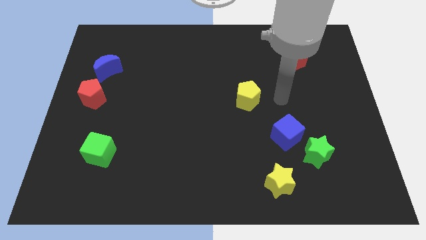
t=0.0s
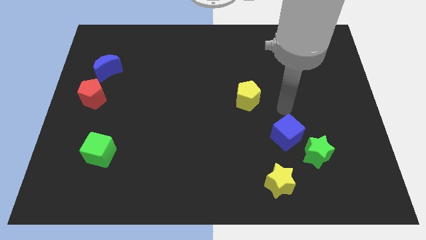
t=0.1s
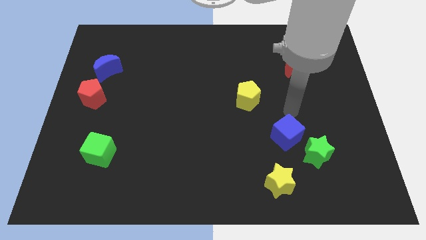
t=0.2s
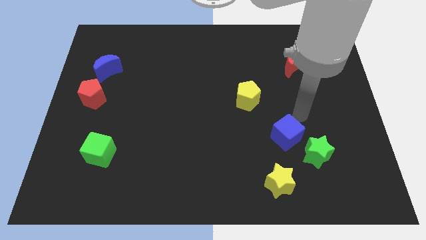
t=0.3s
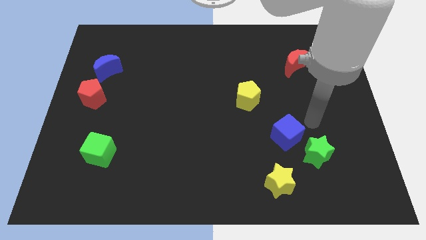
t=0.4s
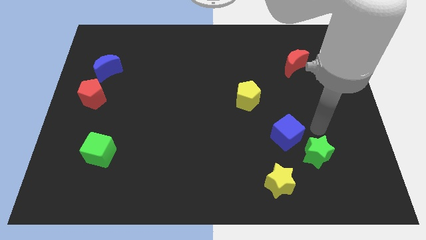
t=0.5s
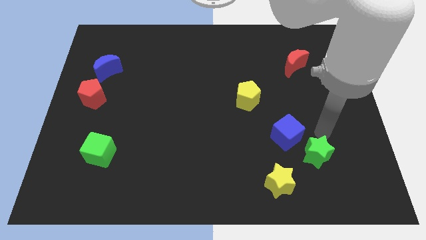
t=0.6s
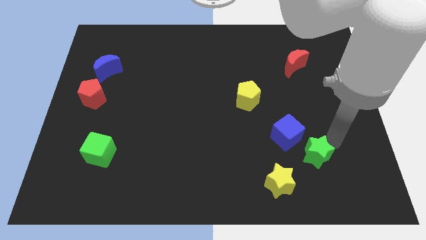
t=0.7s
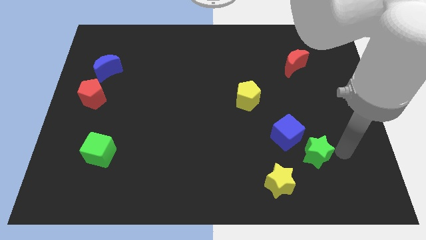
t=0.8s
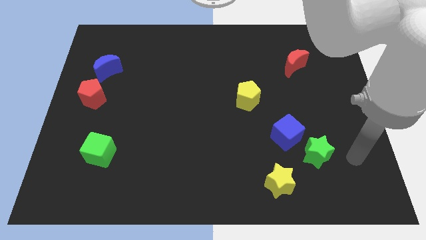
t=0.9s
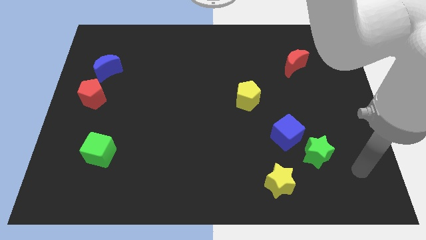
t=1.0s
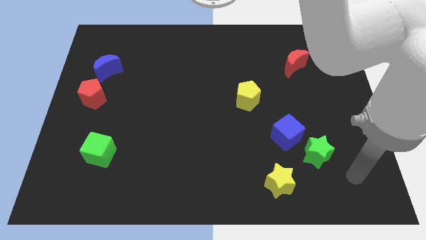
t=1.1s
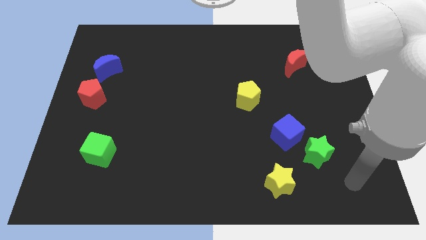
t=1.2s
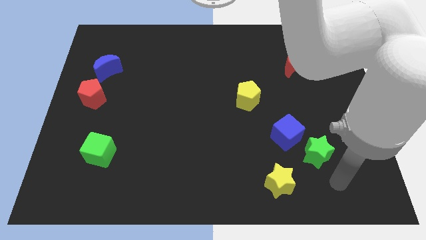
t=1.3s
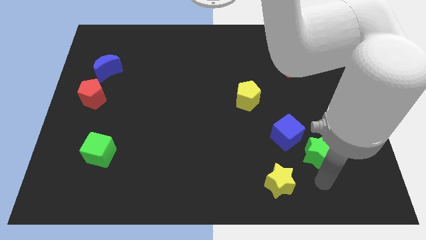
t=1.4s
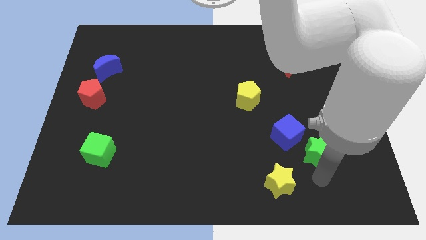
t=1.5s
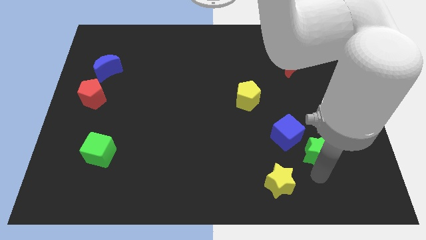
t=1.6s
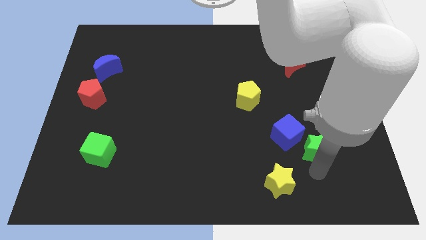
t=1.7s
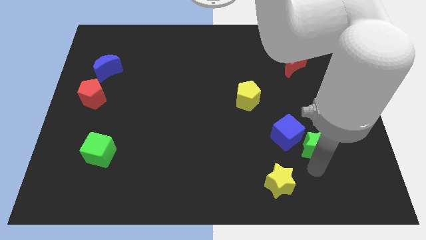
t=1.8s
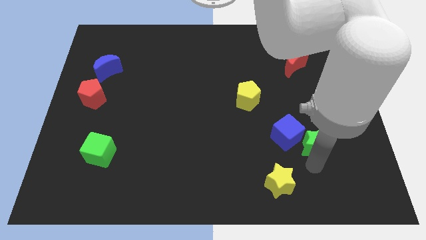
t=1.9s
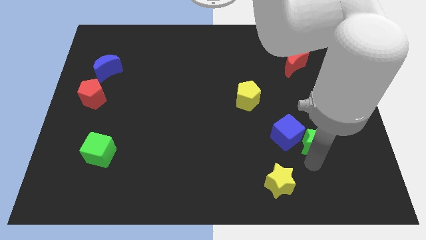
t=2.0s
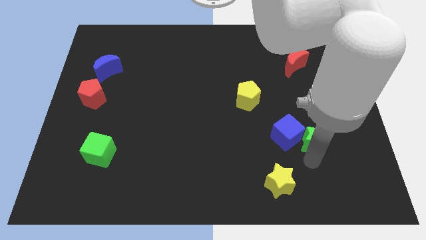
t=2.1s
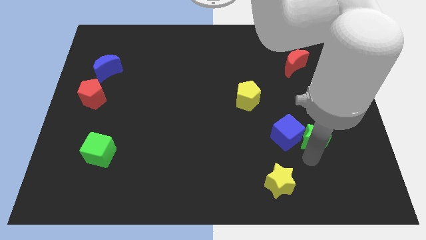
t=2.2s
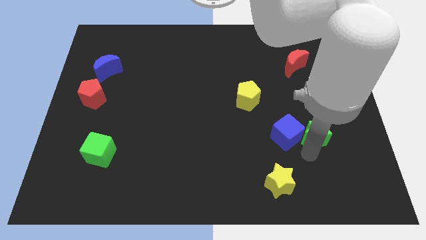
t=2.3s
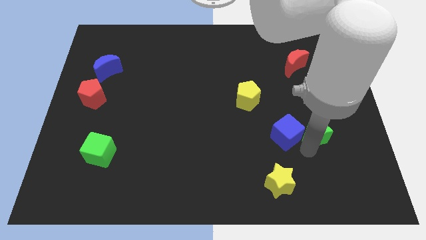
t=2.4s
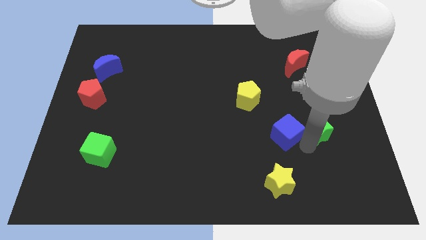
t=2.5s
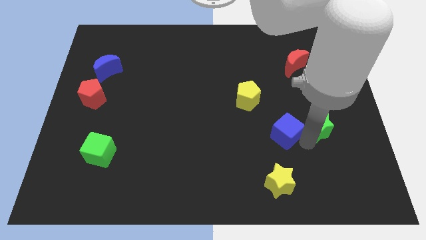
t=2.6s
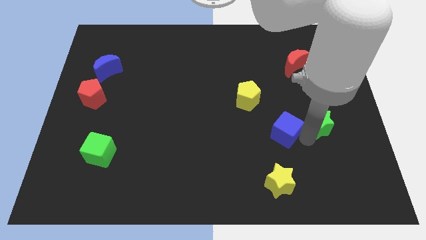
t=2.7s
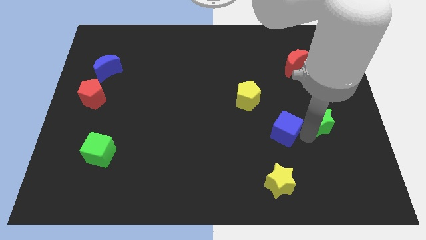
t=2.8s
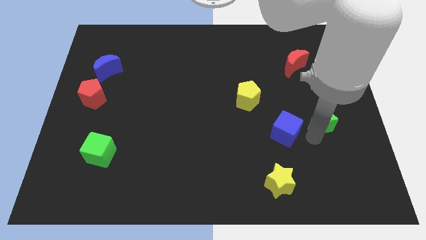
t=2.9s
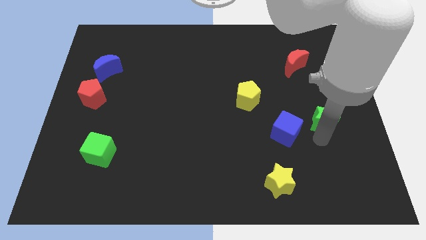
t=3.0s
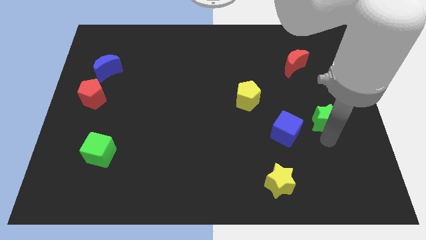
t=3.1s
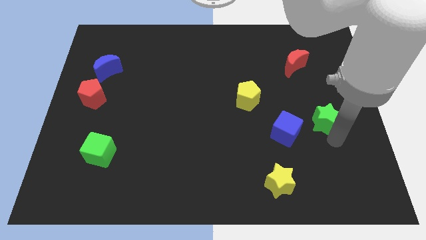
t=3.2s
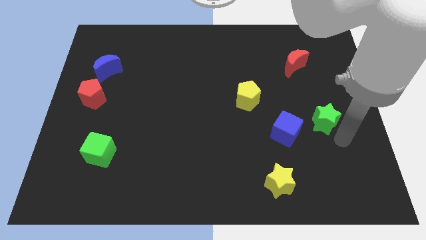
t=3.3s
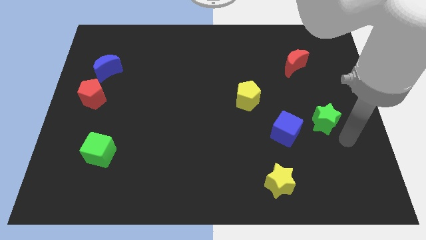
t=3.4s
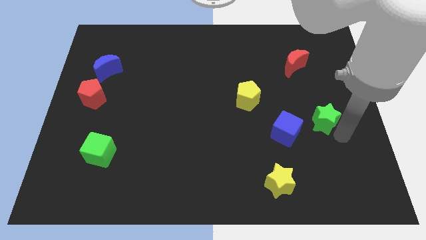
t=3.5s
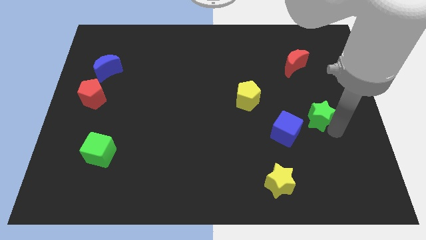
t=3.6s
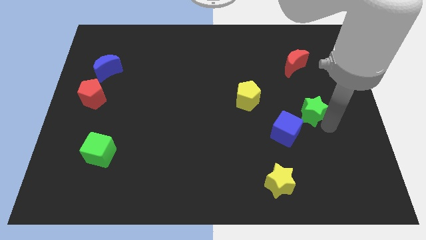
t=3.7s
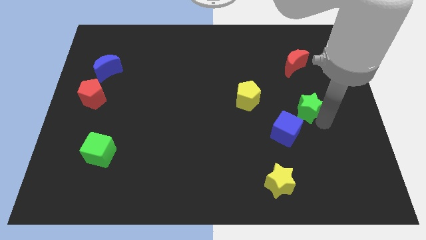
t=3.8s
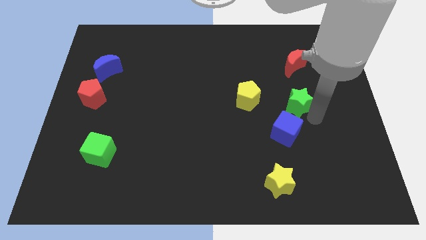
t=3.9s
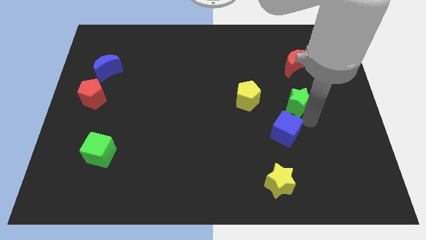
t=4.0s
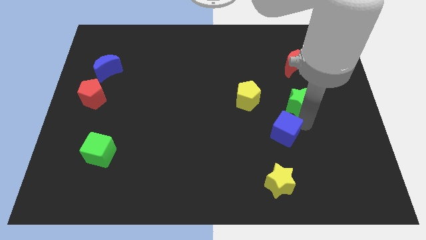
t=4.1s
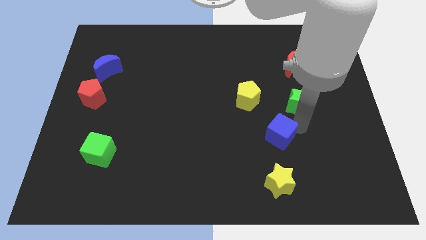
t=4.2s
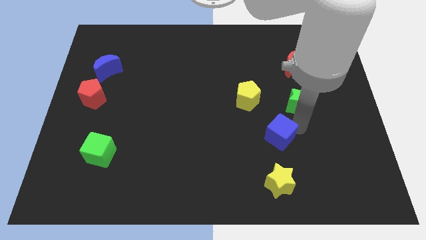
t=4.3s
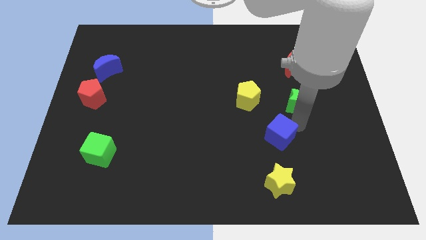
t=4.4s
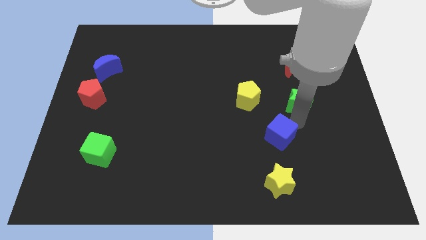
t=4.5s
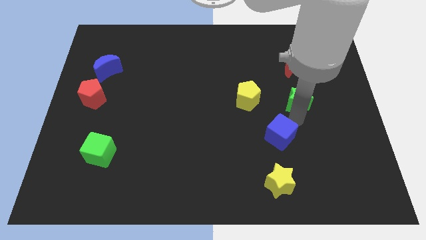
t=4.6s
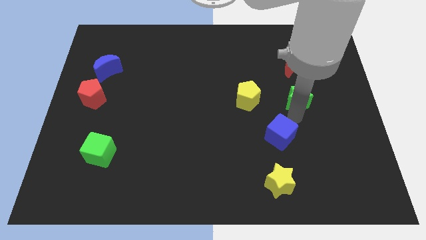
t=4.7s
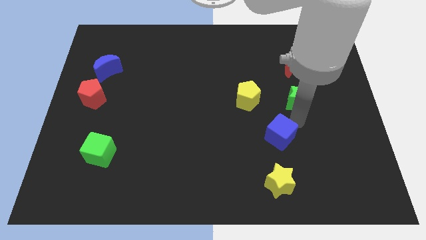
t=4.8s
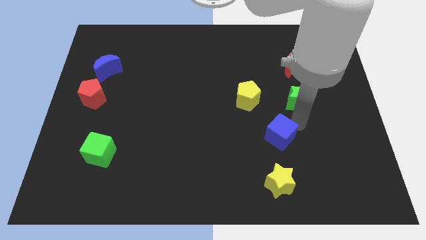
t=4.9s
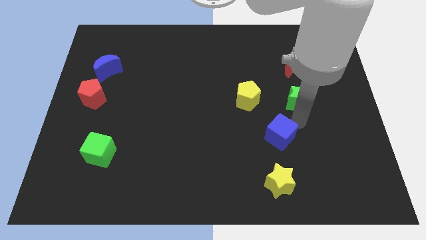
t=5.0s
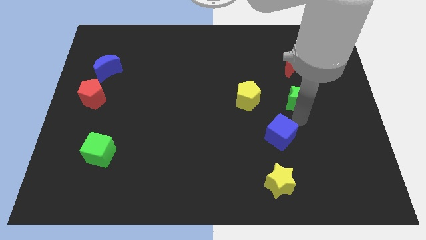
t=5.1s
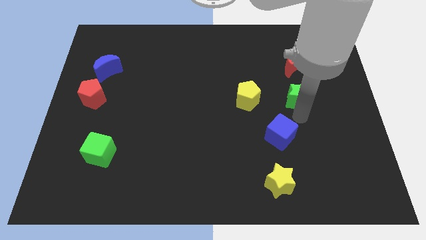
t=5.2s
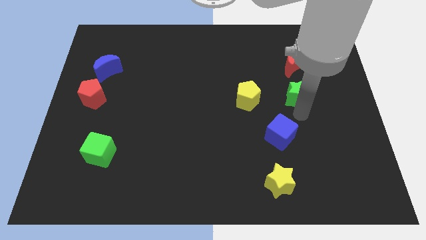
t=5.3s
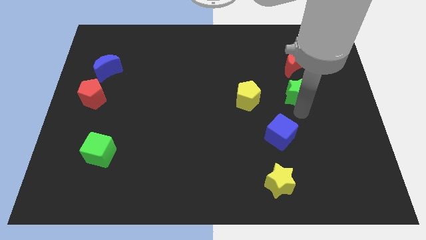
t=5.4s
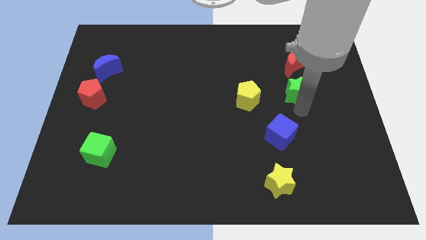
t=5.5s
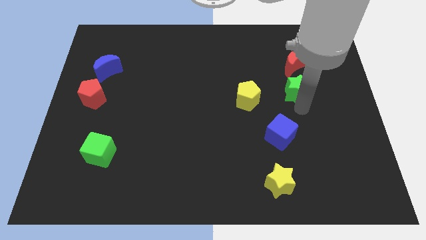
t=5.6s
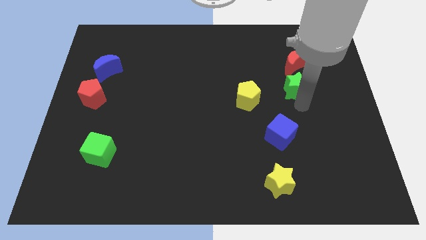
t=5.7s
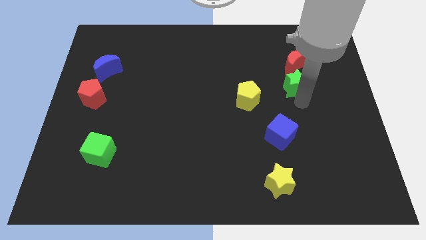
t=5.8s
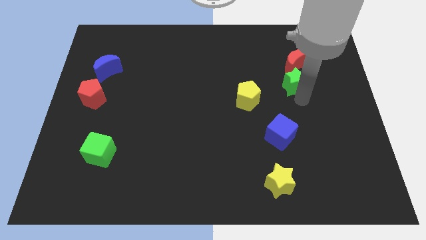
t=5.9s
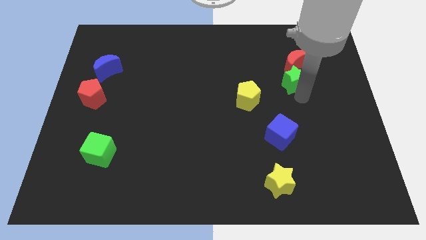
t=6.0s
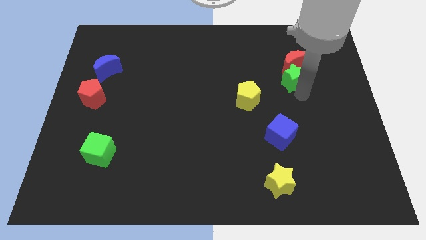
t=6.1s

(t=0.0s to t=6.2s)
push the green star to the red moon

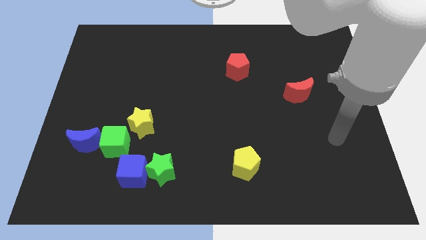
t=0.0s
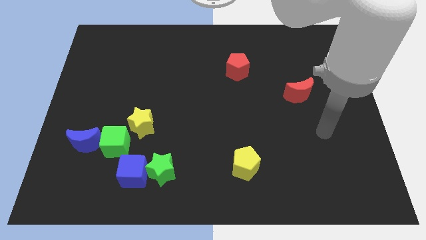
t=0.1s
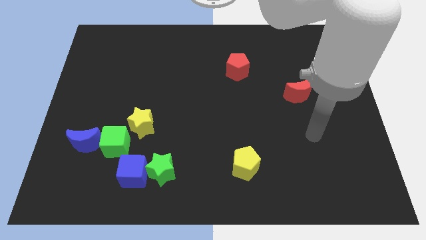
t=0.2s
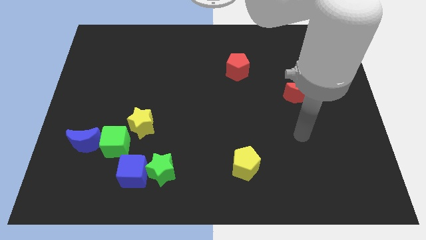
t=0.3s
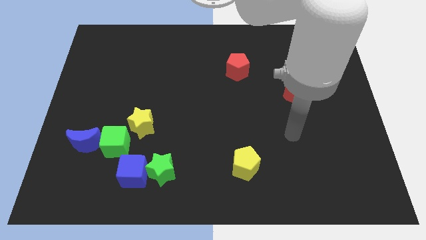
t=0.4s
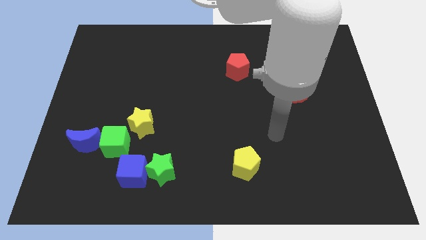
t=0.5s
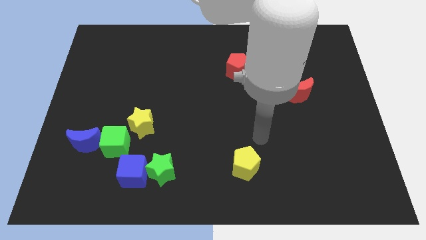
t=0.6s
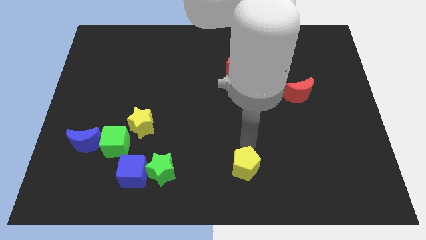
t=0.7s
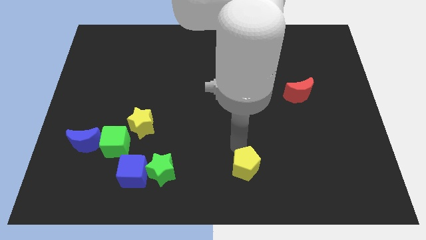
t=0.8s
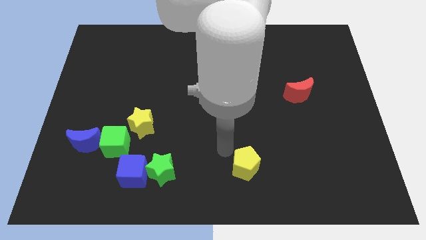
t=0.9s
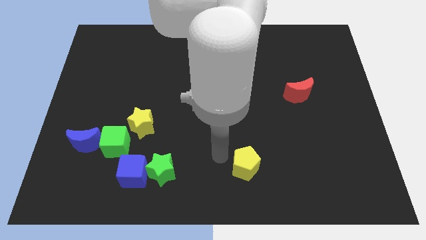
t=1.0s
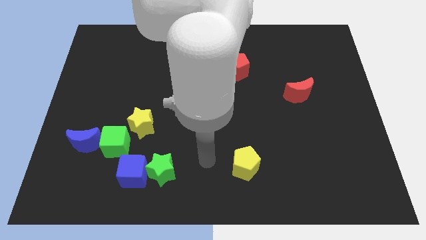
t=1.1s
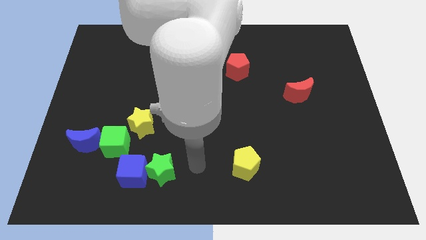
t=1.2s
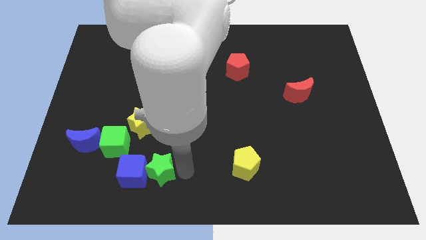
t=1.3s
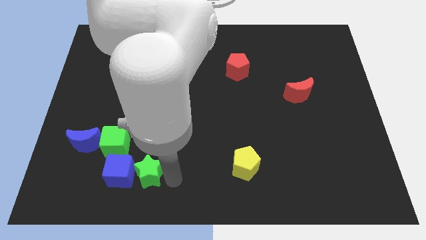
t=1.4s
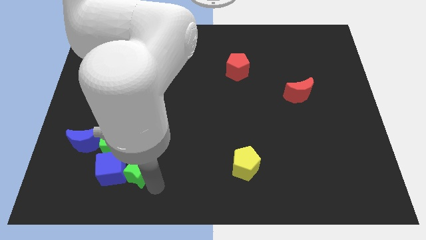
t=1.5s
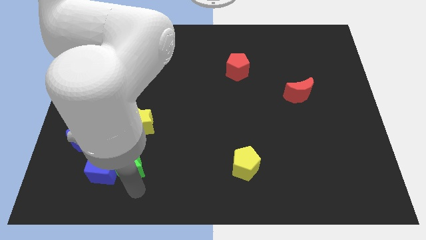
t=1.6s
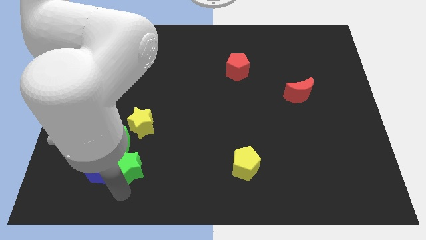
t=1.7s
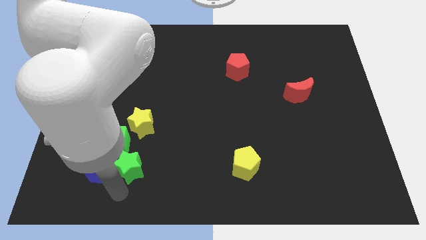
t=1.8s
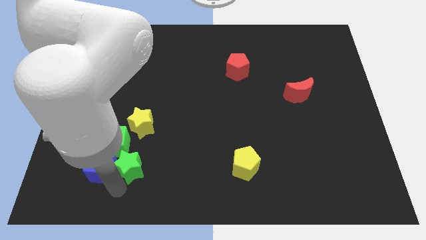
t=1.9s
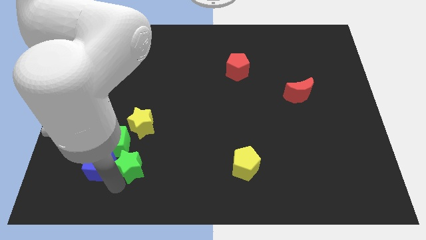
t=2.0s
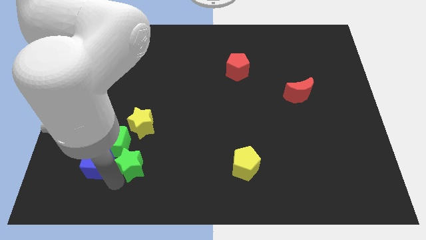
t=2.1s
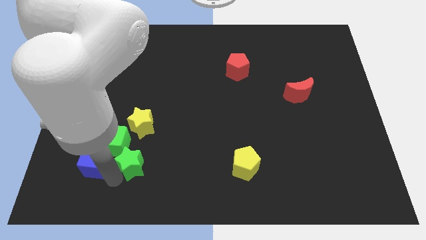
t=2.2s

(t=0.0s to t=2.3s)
push the blue cube next to the blue moon
